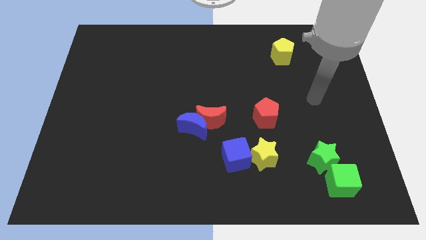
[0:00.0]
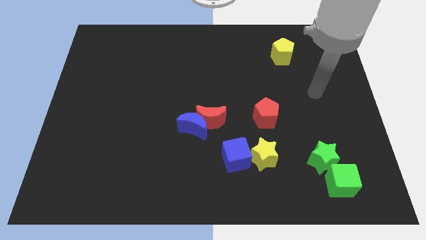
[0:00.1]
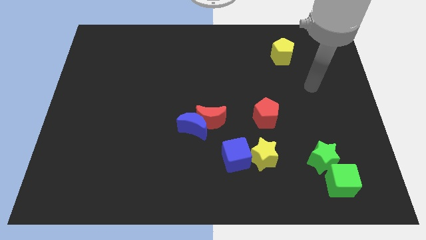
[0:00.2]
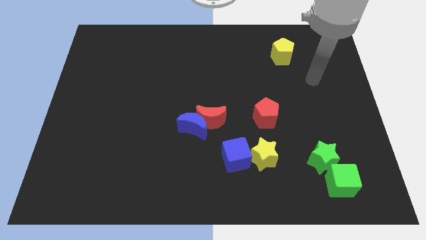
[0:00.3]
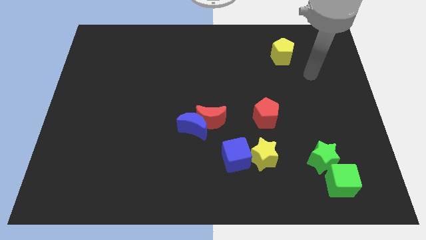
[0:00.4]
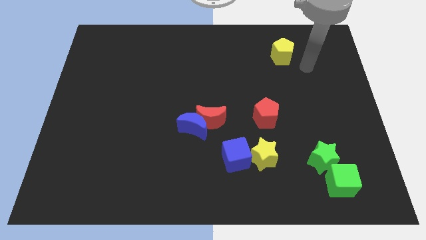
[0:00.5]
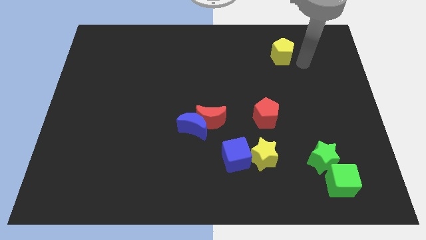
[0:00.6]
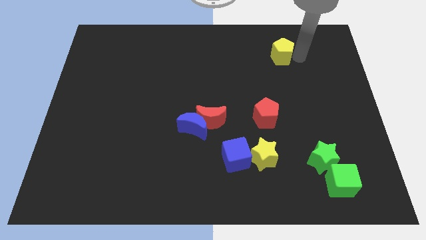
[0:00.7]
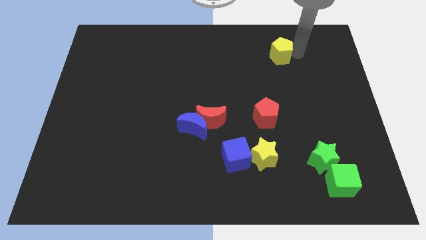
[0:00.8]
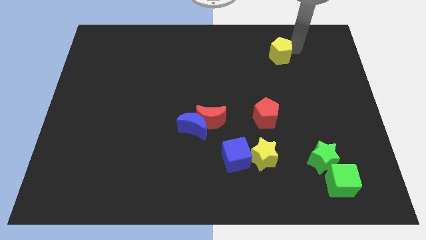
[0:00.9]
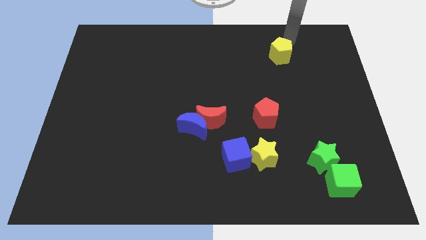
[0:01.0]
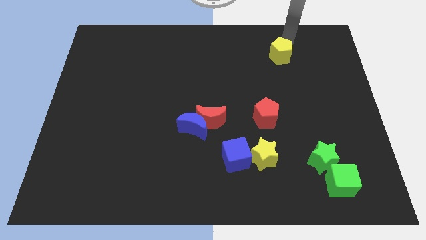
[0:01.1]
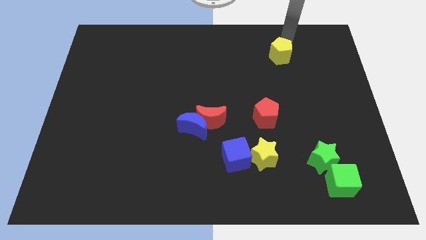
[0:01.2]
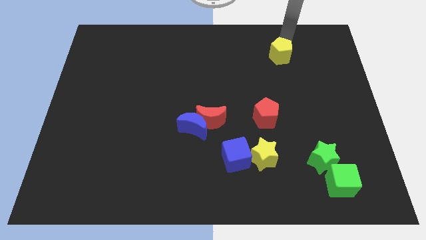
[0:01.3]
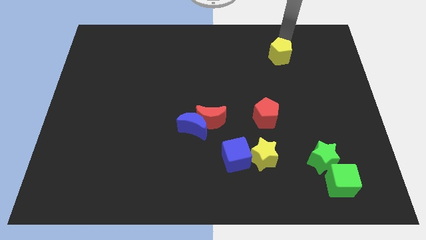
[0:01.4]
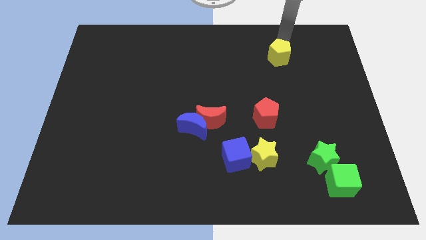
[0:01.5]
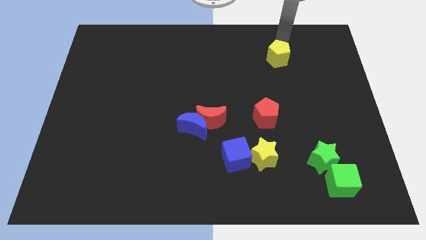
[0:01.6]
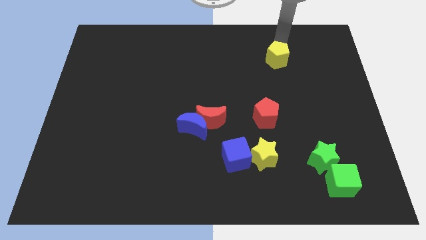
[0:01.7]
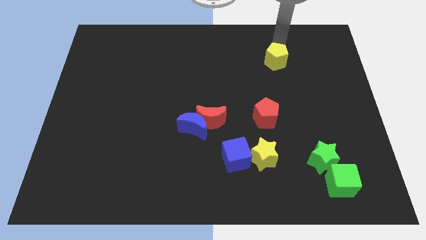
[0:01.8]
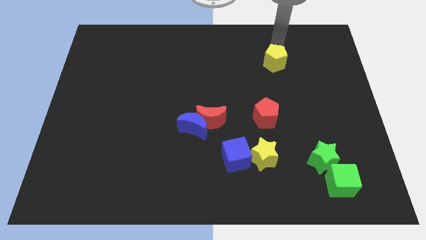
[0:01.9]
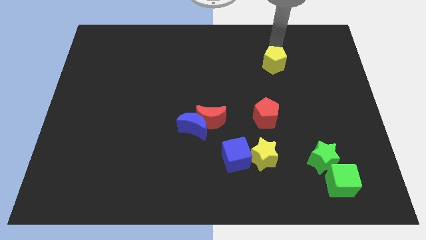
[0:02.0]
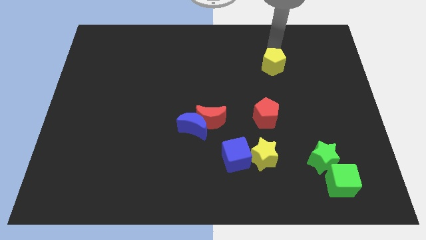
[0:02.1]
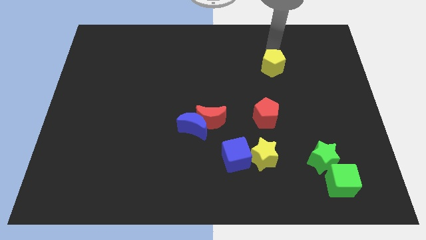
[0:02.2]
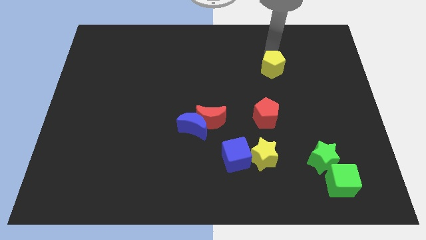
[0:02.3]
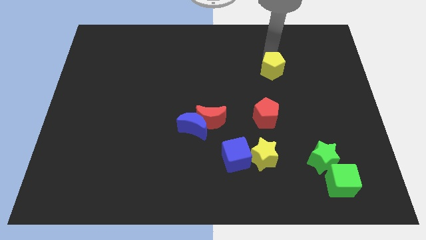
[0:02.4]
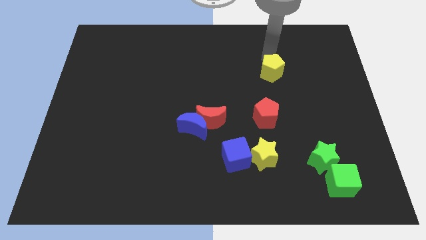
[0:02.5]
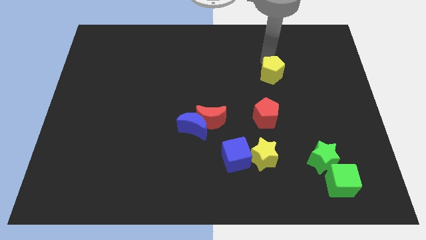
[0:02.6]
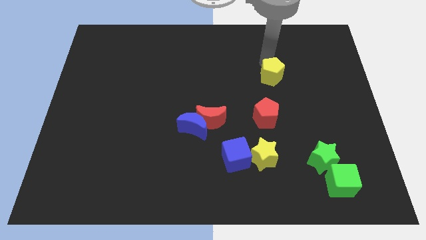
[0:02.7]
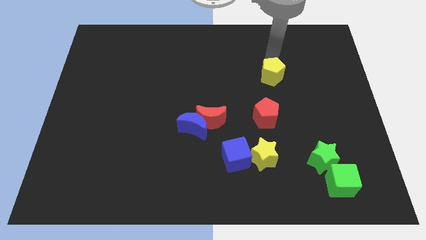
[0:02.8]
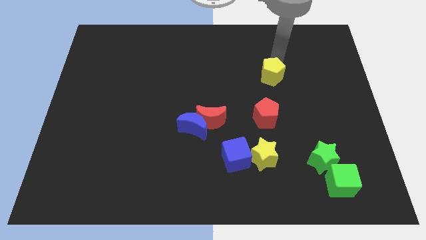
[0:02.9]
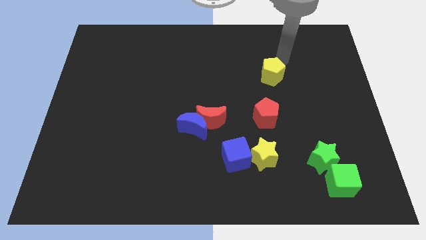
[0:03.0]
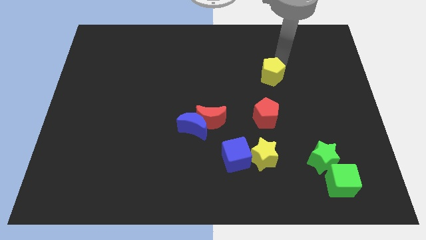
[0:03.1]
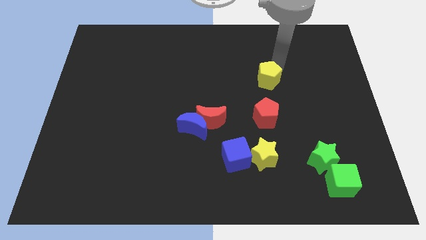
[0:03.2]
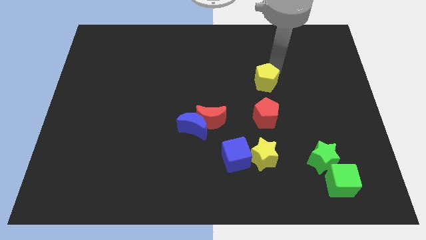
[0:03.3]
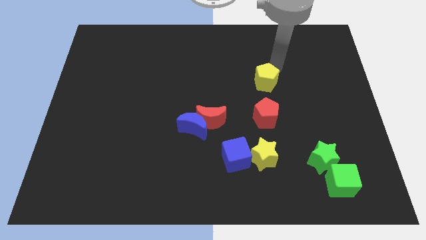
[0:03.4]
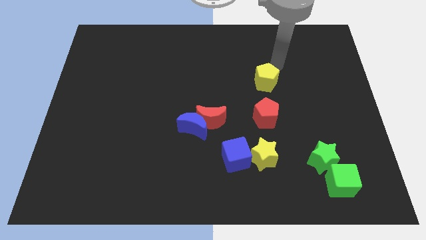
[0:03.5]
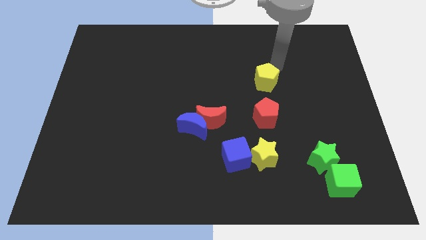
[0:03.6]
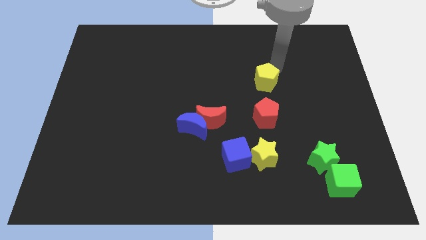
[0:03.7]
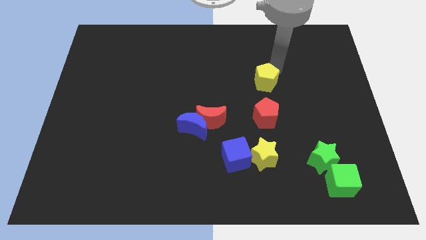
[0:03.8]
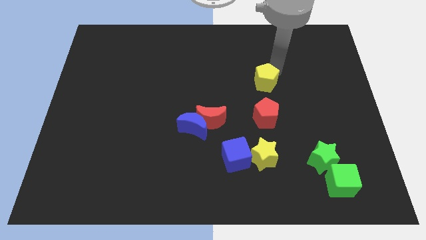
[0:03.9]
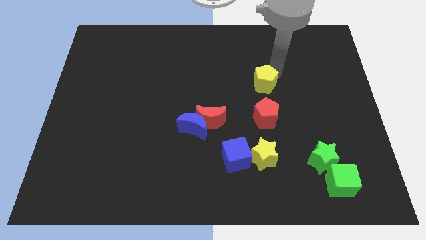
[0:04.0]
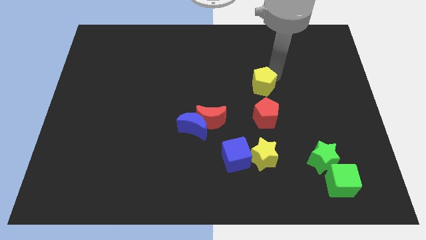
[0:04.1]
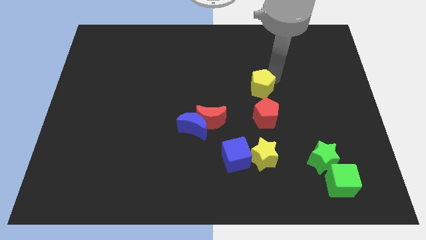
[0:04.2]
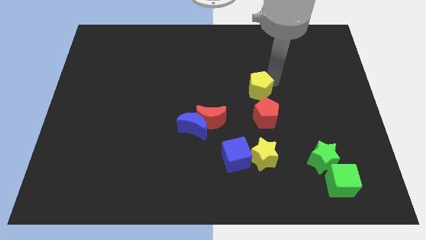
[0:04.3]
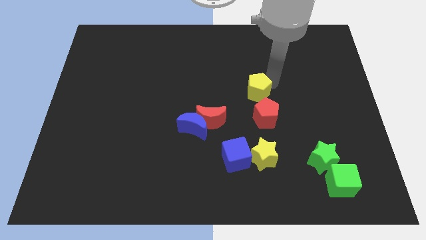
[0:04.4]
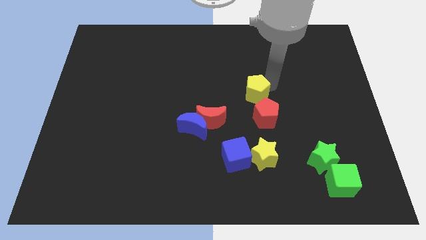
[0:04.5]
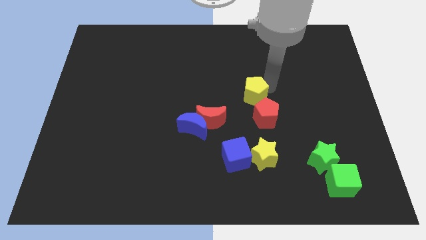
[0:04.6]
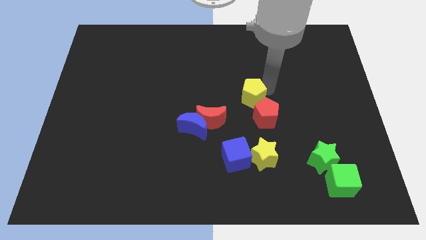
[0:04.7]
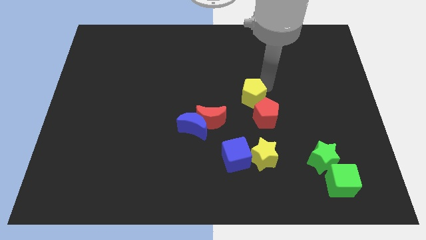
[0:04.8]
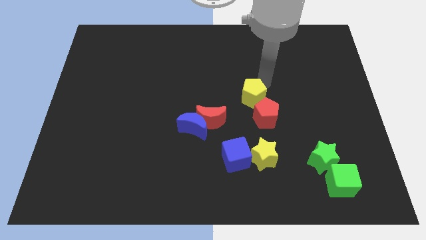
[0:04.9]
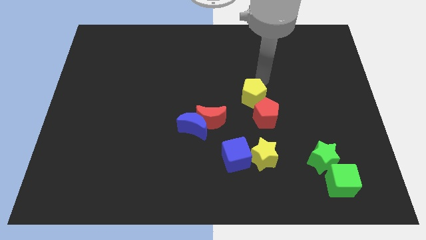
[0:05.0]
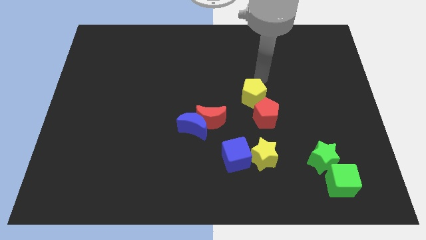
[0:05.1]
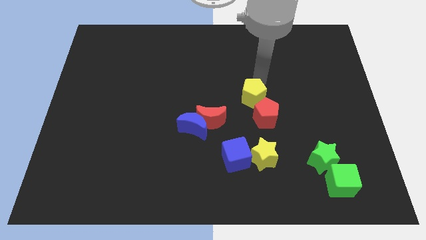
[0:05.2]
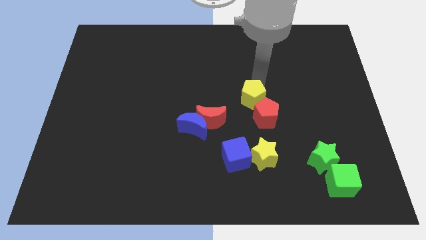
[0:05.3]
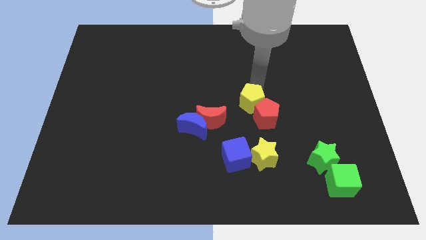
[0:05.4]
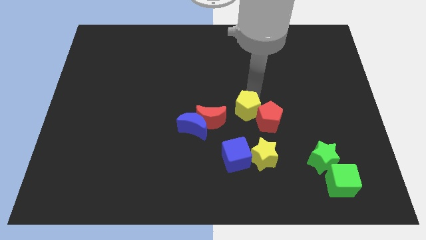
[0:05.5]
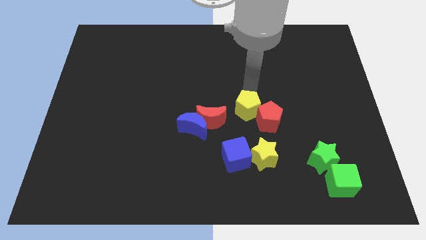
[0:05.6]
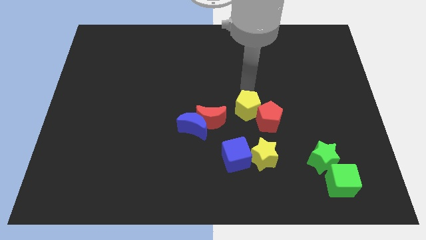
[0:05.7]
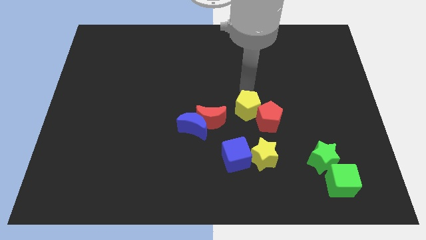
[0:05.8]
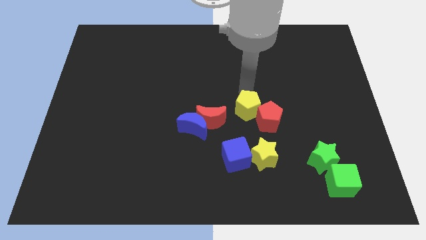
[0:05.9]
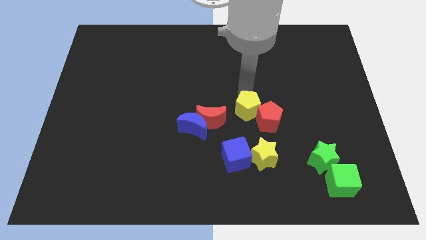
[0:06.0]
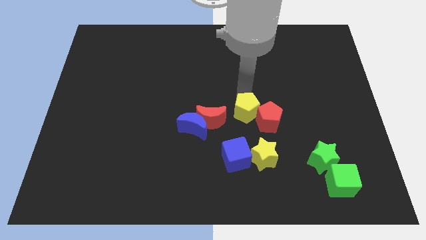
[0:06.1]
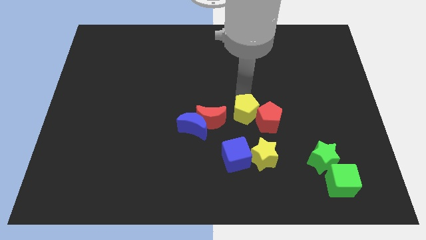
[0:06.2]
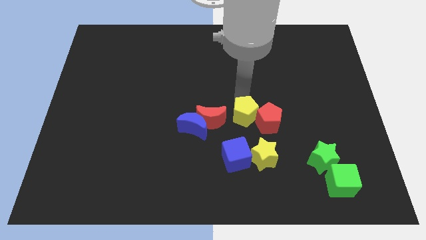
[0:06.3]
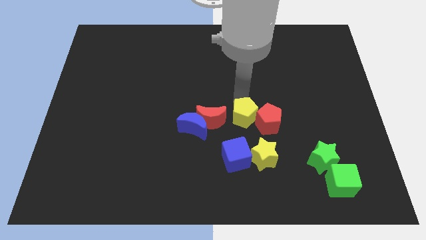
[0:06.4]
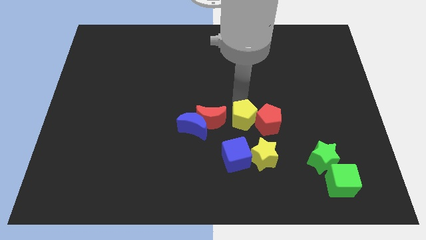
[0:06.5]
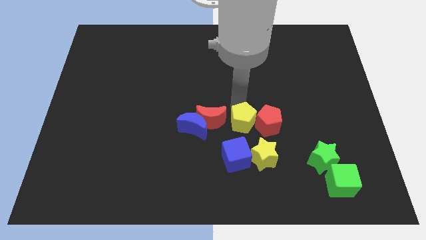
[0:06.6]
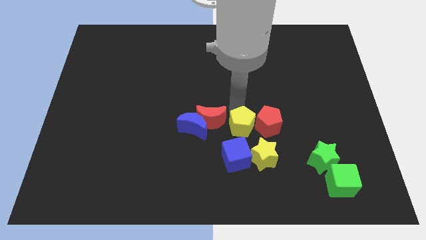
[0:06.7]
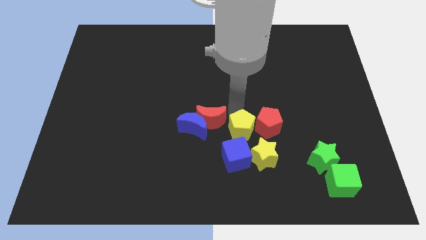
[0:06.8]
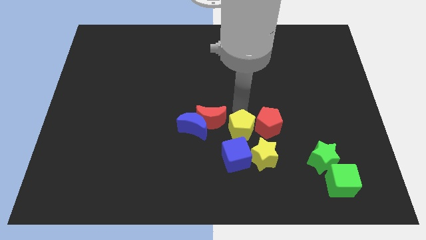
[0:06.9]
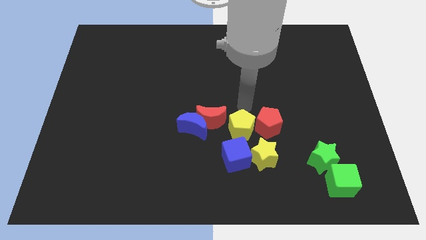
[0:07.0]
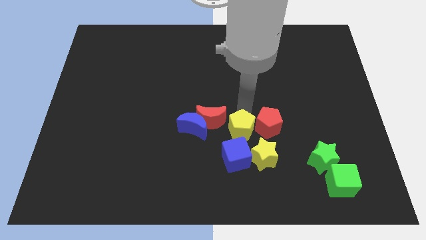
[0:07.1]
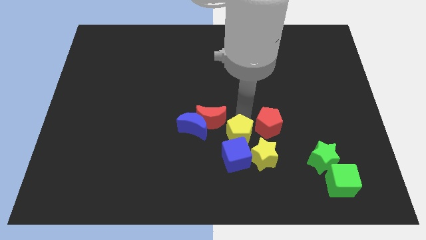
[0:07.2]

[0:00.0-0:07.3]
slide the yellow pentagon close to the blue cube

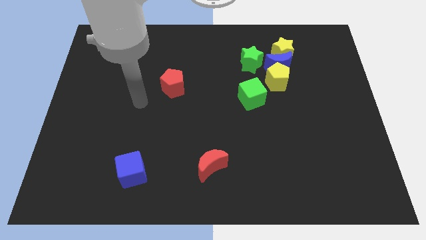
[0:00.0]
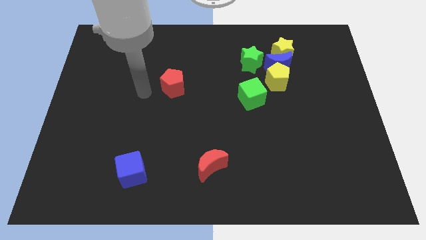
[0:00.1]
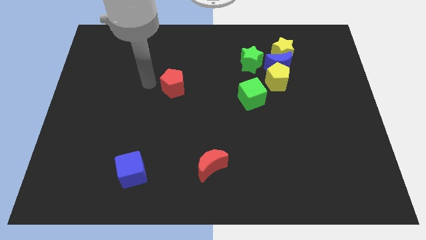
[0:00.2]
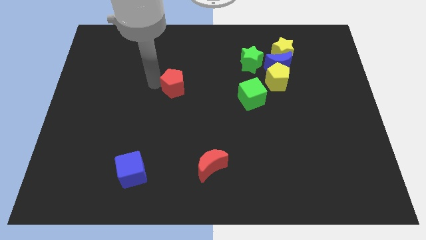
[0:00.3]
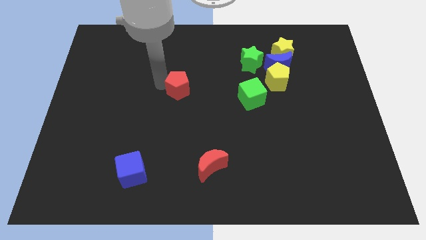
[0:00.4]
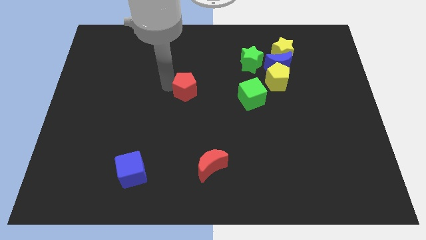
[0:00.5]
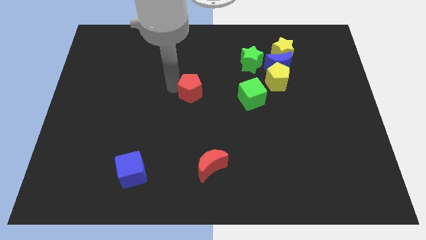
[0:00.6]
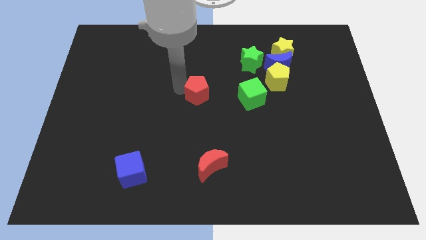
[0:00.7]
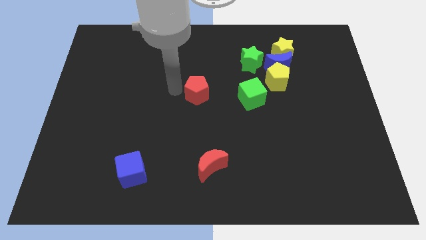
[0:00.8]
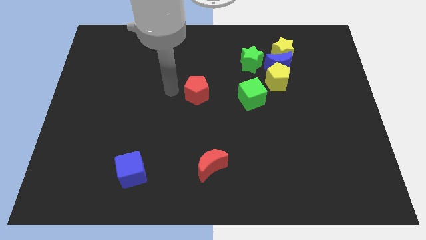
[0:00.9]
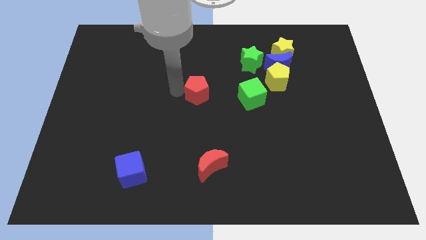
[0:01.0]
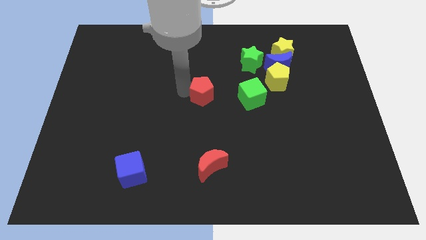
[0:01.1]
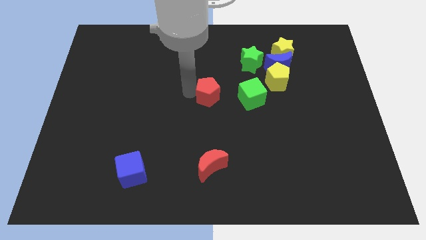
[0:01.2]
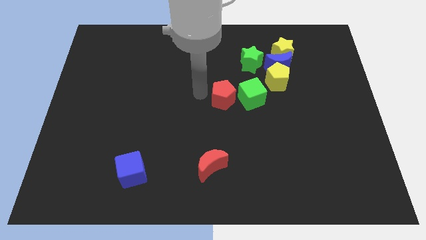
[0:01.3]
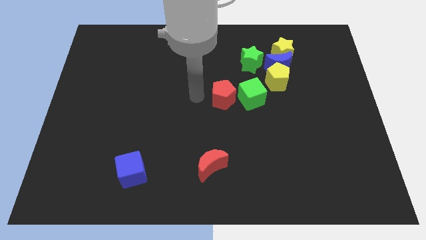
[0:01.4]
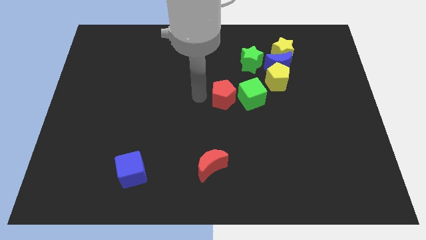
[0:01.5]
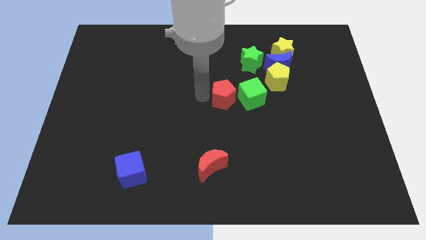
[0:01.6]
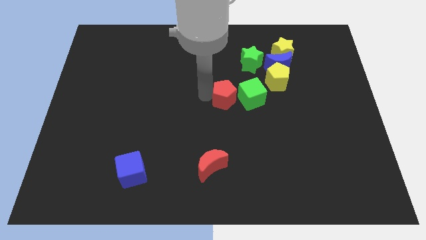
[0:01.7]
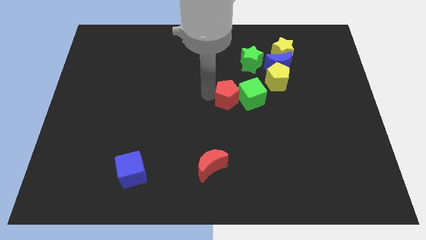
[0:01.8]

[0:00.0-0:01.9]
put the red pentagon to the green cube
